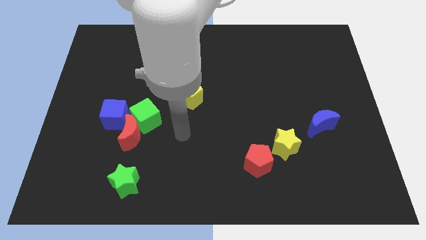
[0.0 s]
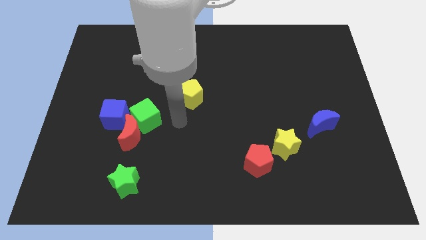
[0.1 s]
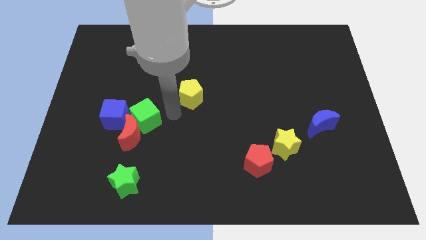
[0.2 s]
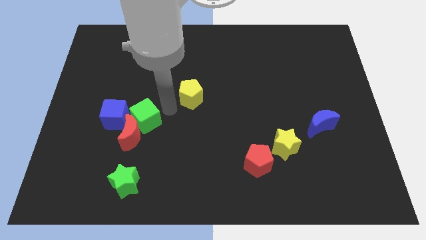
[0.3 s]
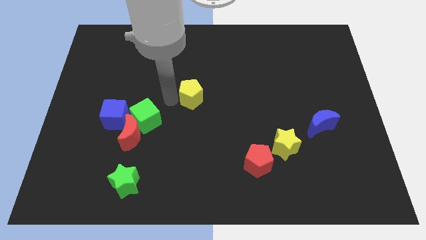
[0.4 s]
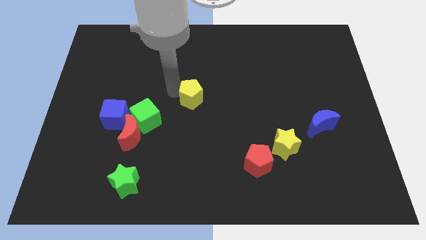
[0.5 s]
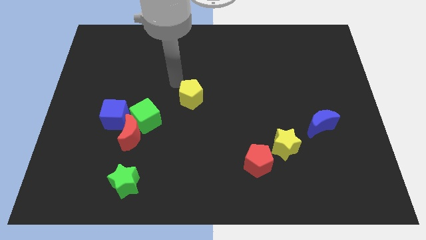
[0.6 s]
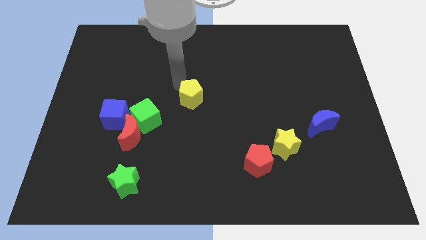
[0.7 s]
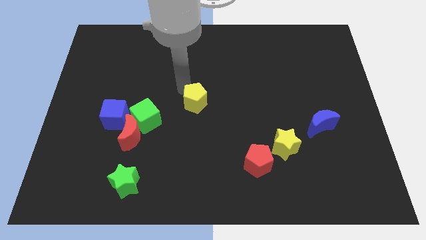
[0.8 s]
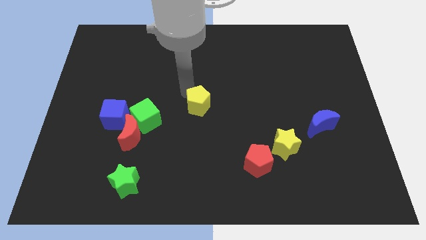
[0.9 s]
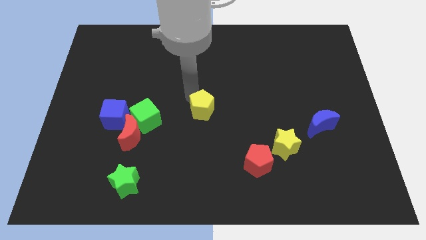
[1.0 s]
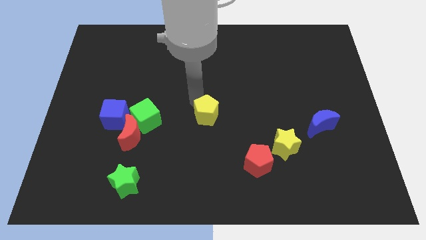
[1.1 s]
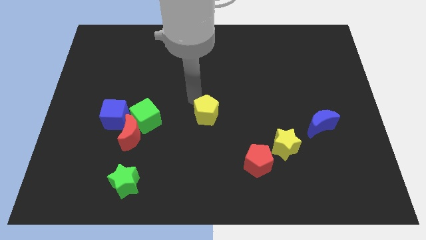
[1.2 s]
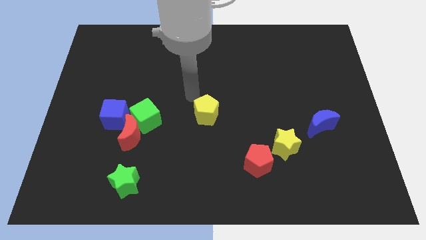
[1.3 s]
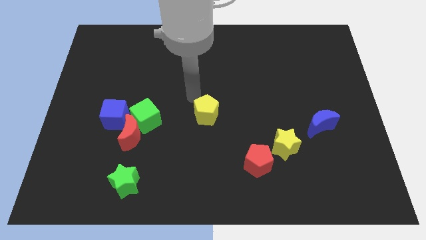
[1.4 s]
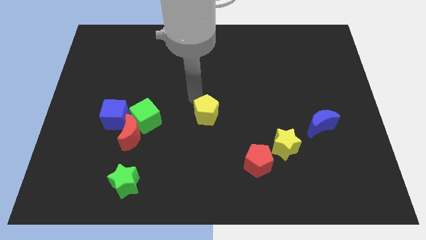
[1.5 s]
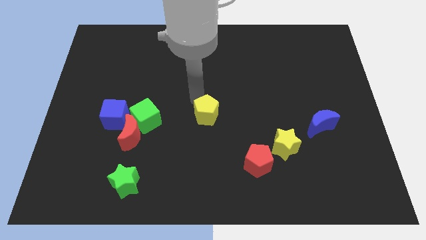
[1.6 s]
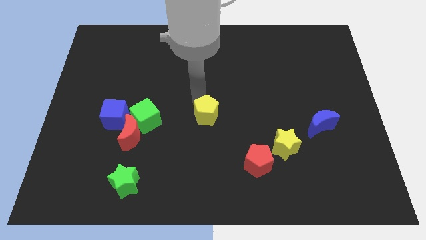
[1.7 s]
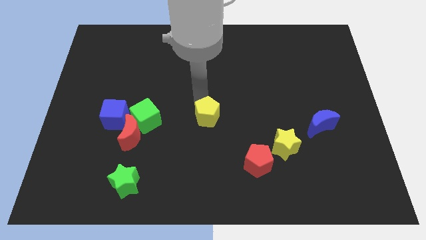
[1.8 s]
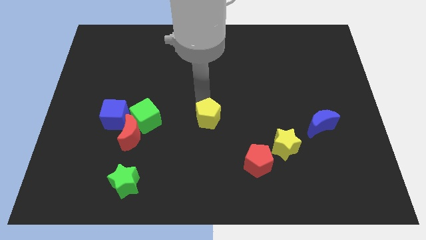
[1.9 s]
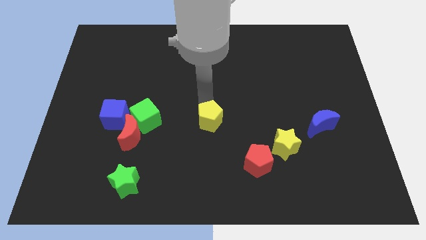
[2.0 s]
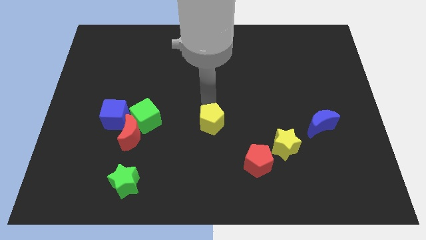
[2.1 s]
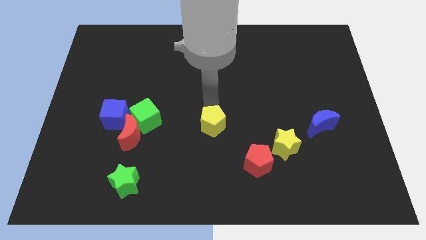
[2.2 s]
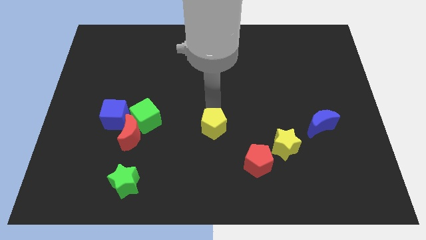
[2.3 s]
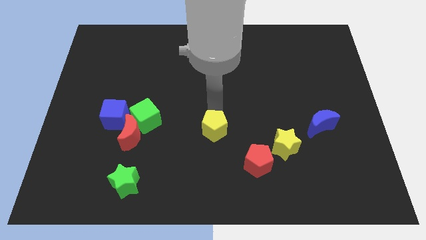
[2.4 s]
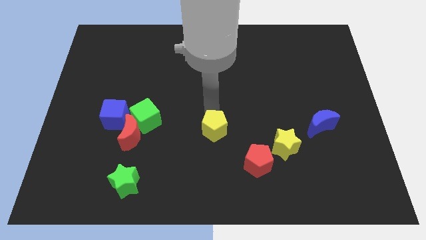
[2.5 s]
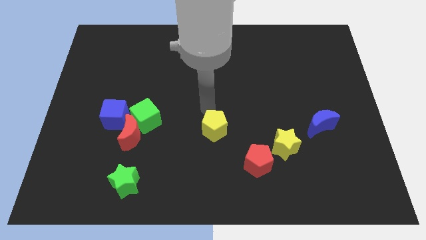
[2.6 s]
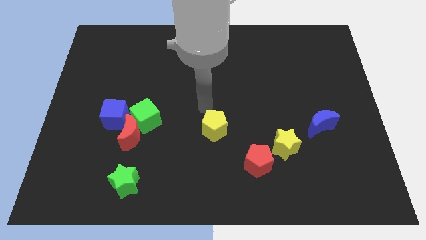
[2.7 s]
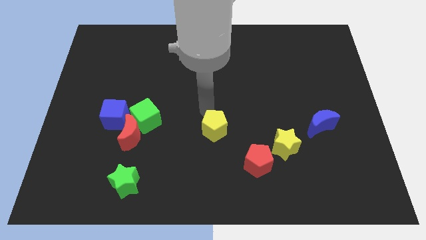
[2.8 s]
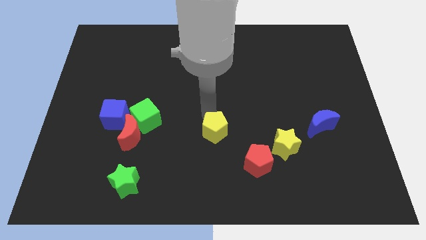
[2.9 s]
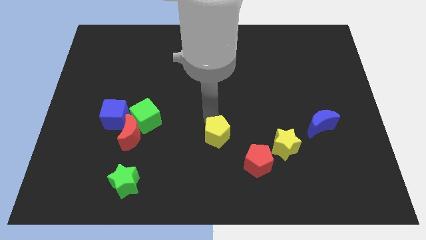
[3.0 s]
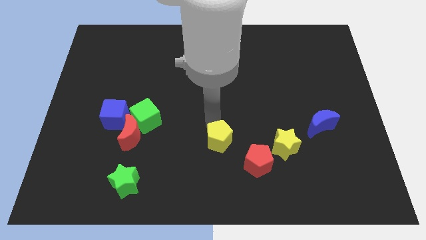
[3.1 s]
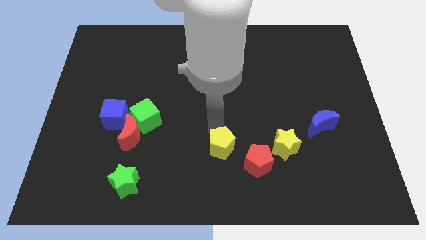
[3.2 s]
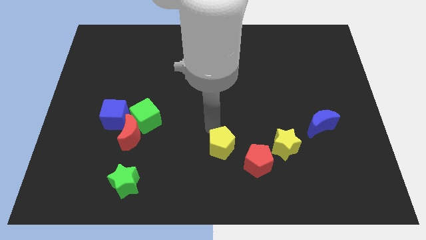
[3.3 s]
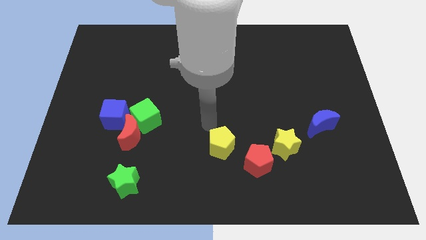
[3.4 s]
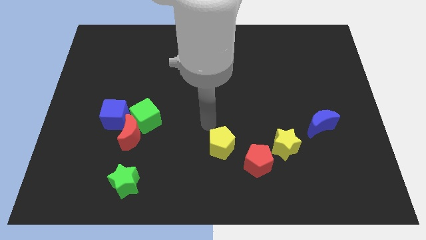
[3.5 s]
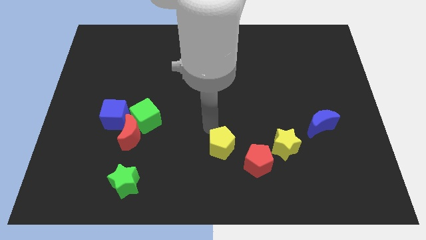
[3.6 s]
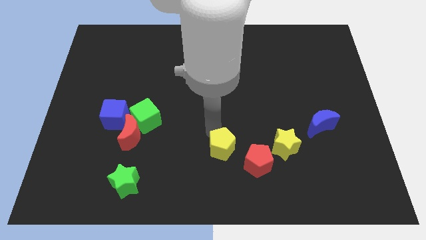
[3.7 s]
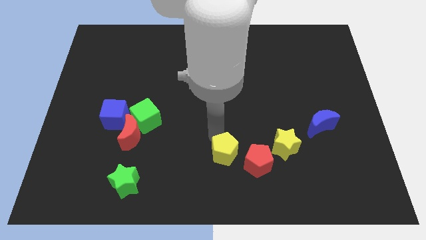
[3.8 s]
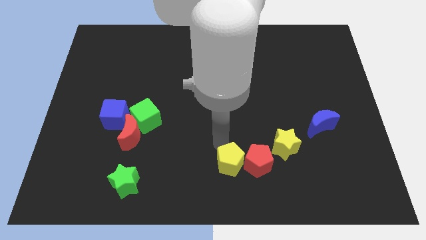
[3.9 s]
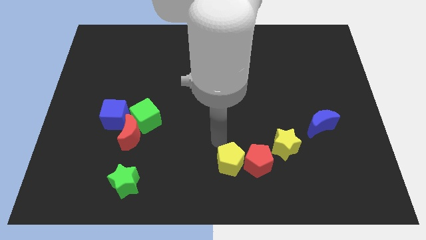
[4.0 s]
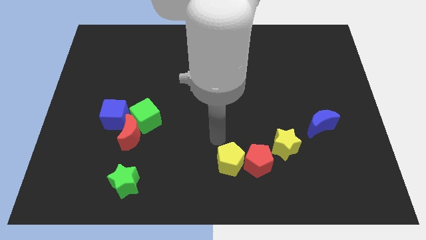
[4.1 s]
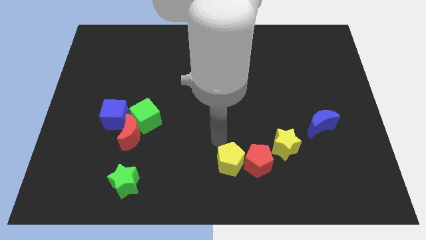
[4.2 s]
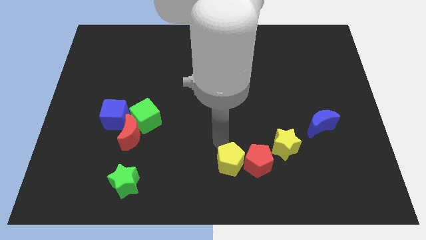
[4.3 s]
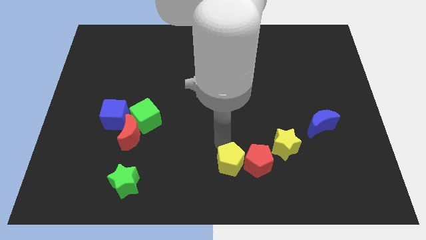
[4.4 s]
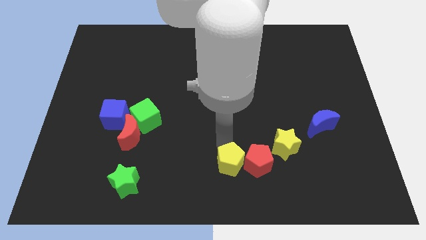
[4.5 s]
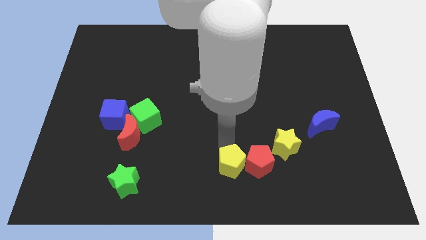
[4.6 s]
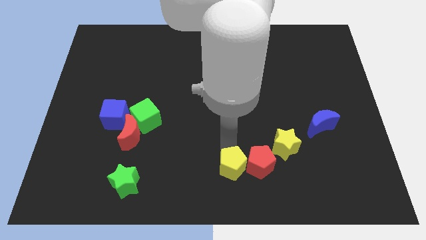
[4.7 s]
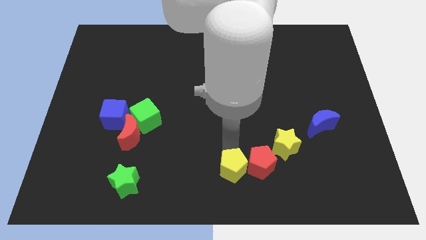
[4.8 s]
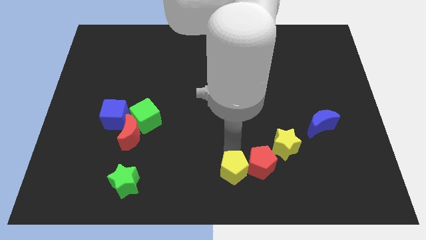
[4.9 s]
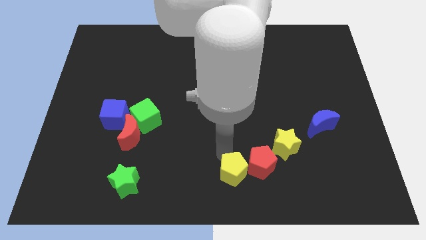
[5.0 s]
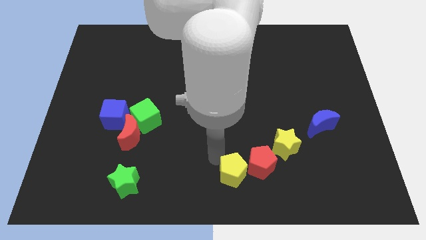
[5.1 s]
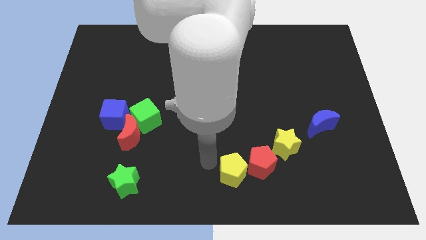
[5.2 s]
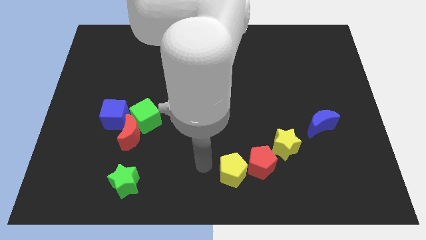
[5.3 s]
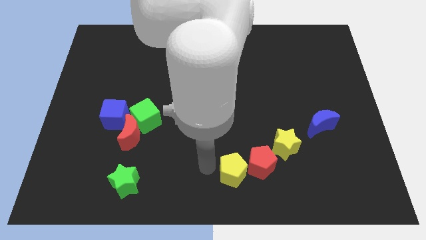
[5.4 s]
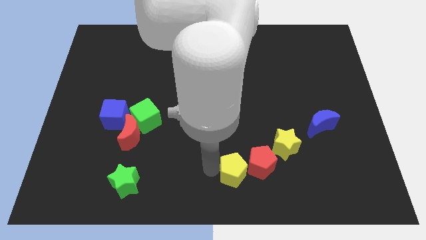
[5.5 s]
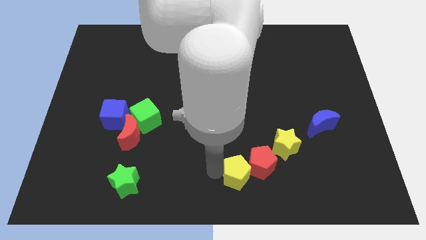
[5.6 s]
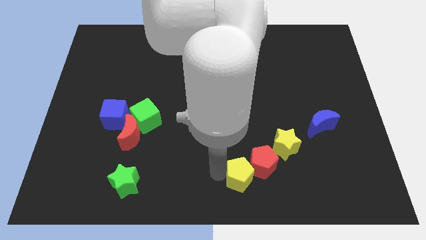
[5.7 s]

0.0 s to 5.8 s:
slide the yellow pentagon downwards and right

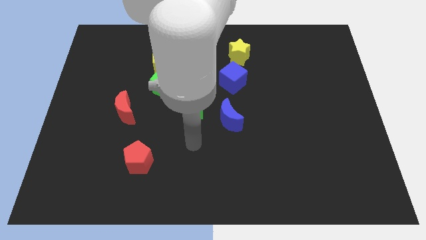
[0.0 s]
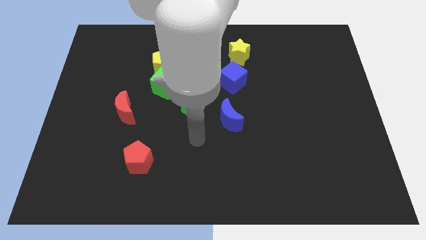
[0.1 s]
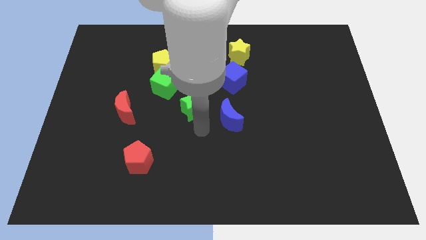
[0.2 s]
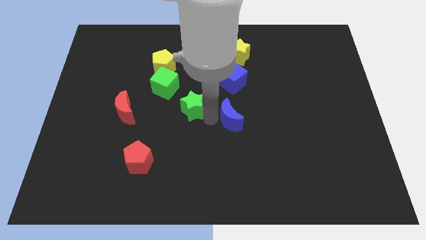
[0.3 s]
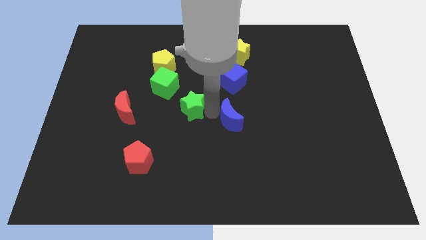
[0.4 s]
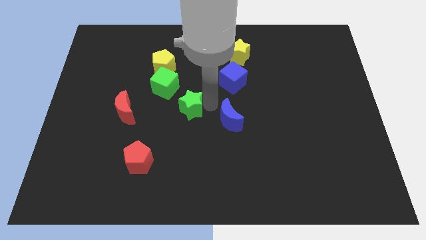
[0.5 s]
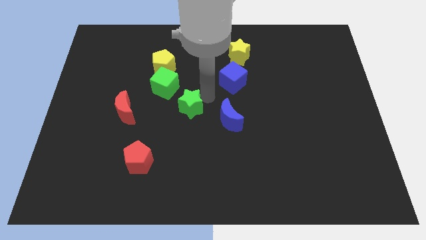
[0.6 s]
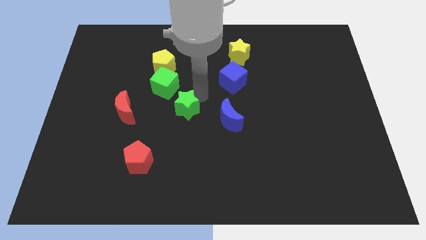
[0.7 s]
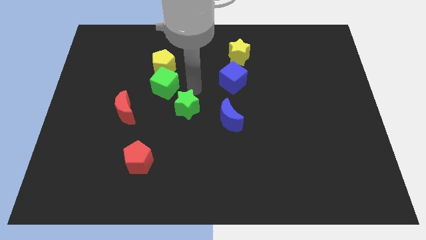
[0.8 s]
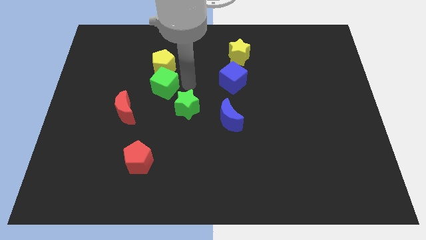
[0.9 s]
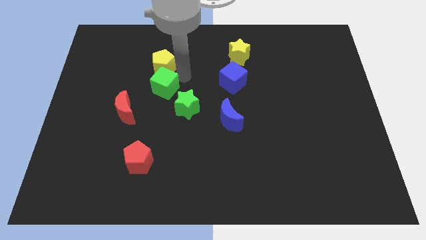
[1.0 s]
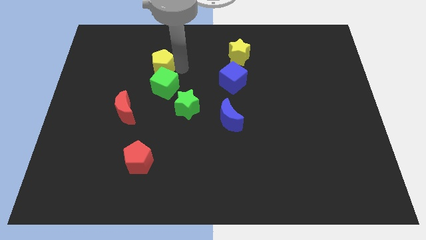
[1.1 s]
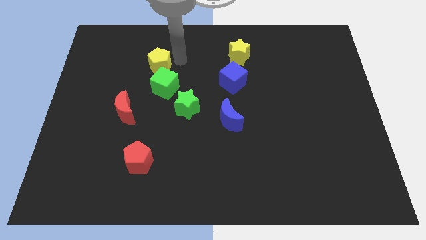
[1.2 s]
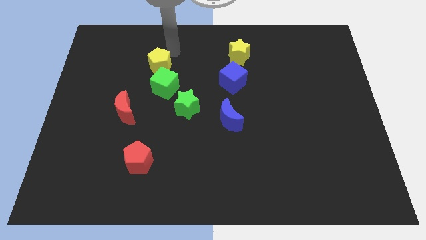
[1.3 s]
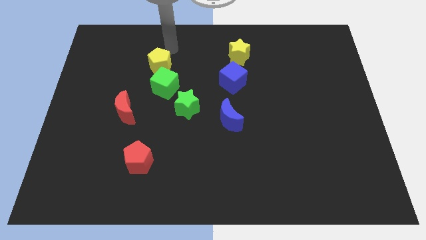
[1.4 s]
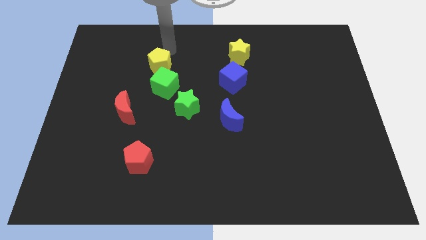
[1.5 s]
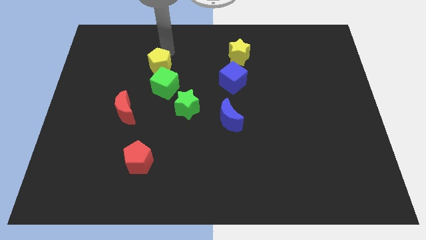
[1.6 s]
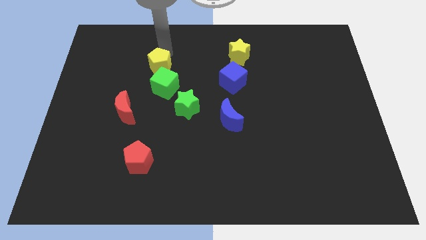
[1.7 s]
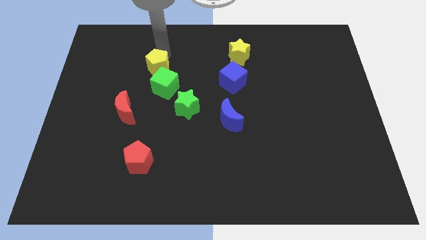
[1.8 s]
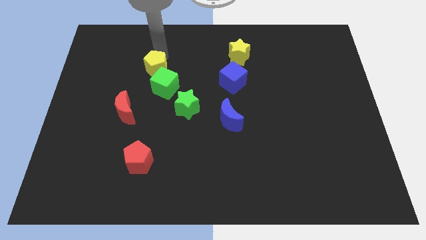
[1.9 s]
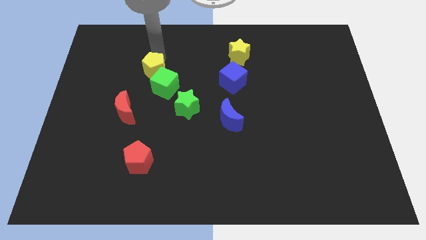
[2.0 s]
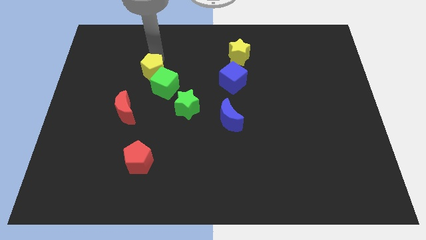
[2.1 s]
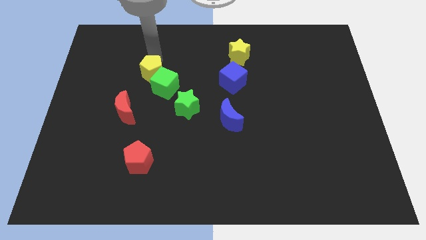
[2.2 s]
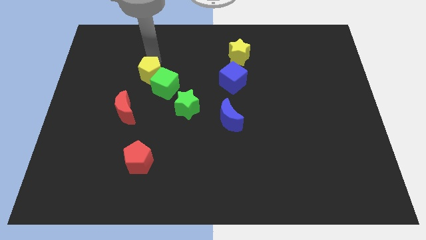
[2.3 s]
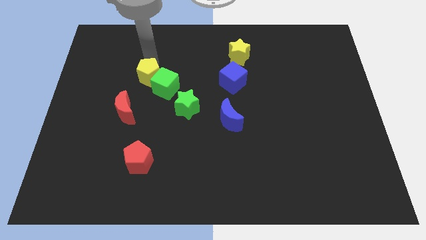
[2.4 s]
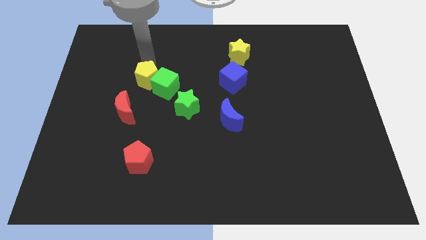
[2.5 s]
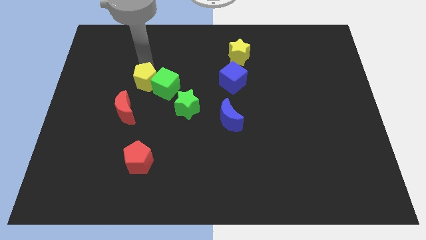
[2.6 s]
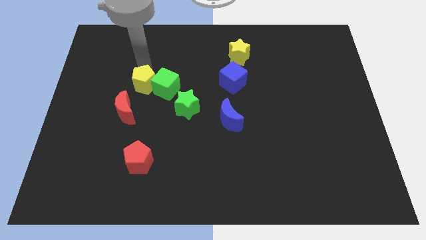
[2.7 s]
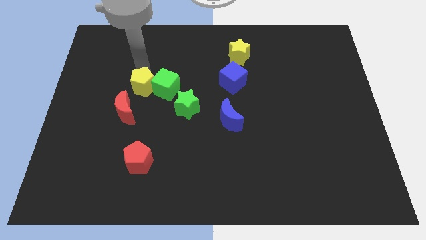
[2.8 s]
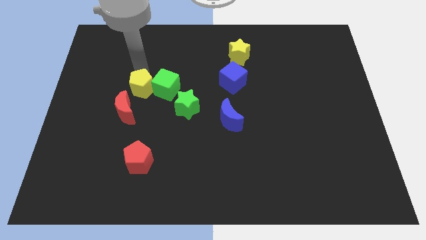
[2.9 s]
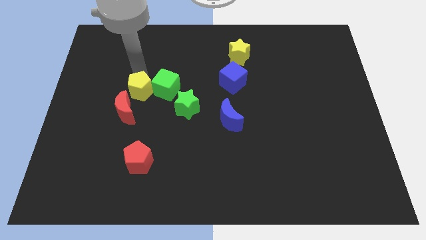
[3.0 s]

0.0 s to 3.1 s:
push the yellow pentagon down a bit
